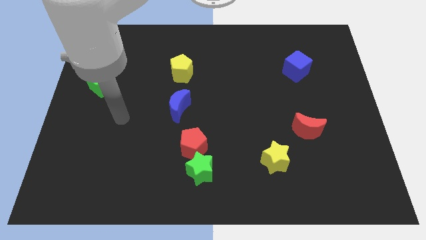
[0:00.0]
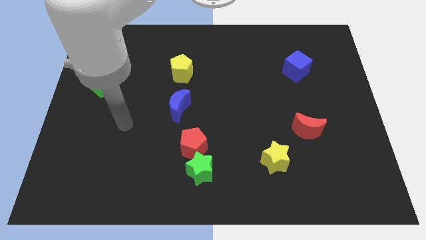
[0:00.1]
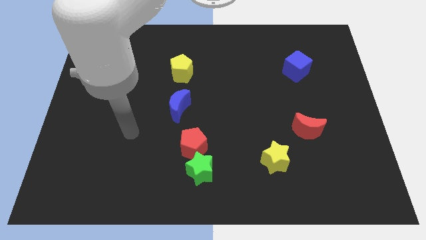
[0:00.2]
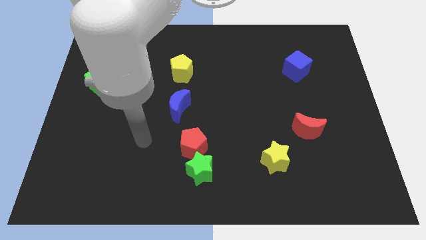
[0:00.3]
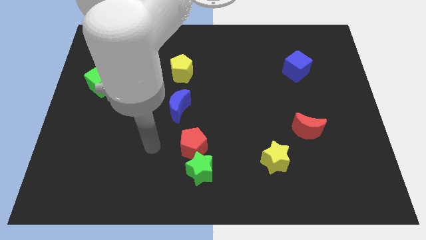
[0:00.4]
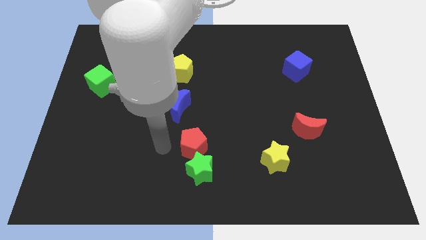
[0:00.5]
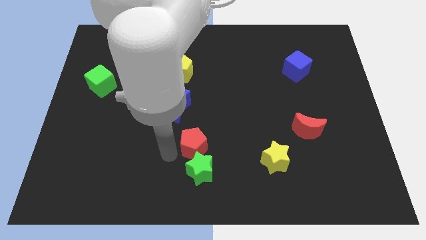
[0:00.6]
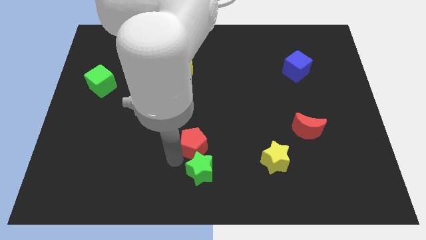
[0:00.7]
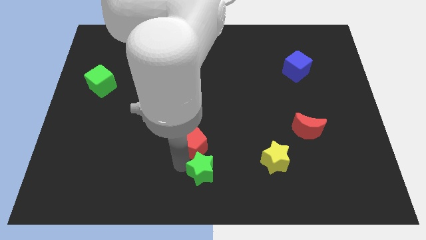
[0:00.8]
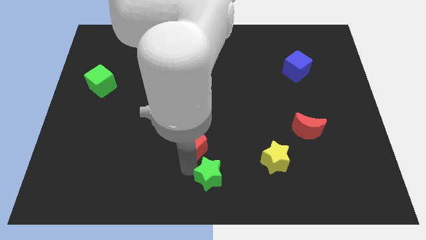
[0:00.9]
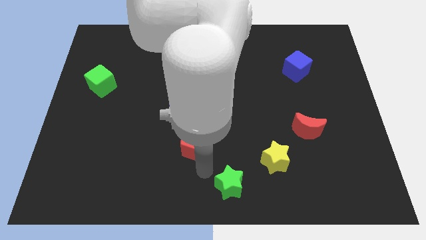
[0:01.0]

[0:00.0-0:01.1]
separate the red pentagon from the green star

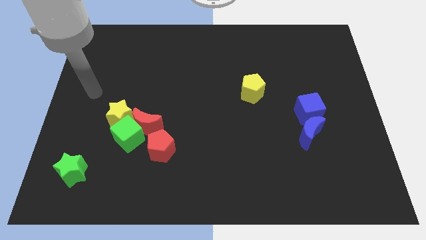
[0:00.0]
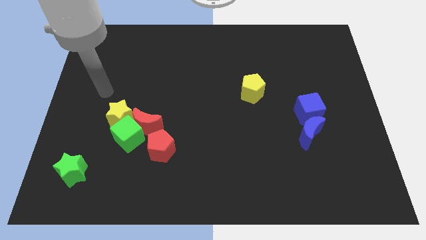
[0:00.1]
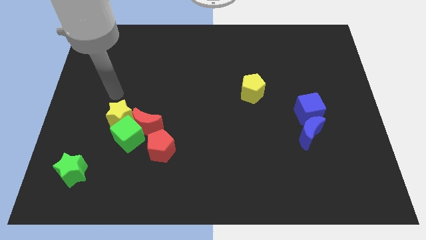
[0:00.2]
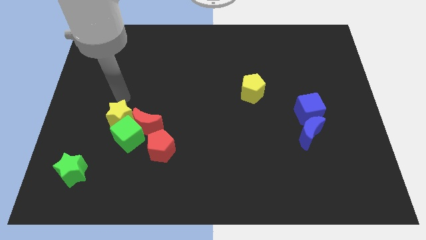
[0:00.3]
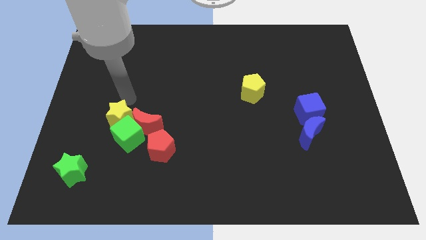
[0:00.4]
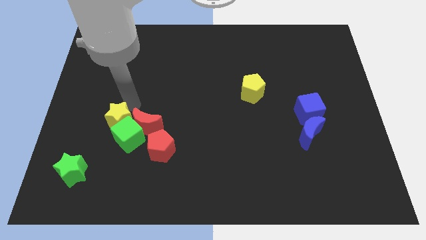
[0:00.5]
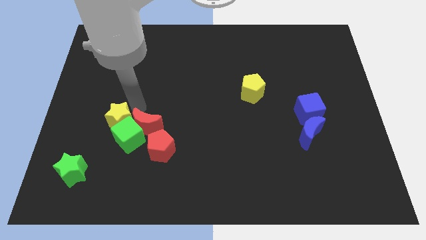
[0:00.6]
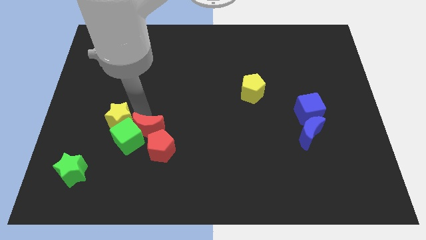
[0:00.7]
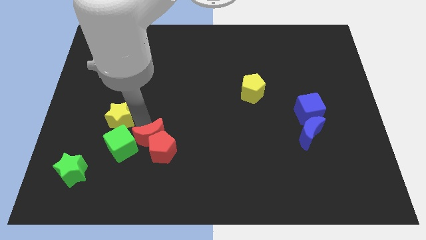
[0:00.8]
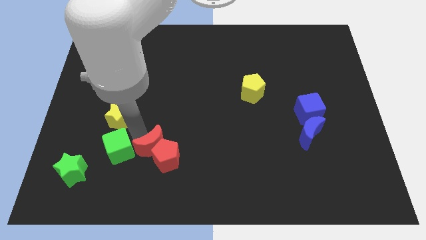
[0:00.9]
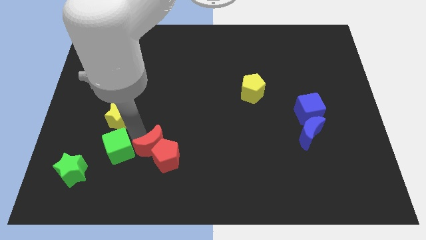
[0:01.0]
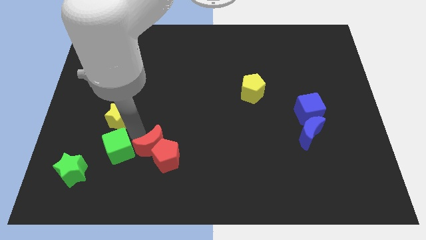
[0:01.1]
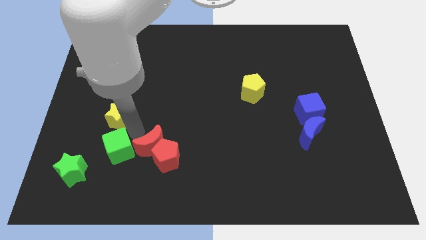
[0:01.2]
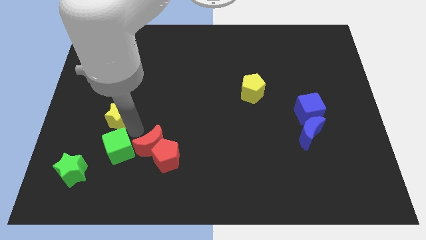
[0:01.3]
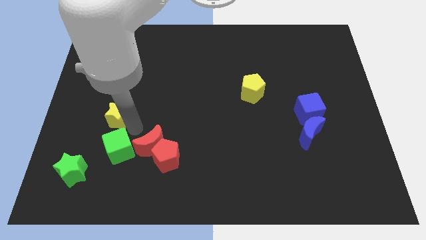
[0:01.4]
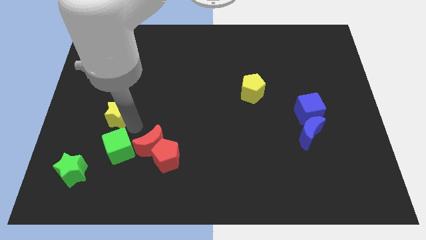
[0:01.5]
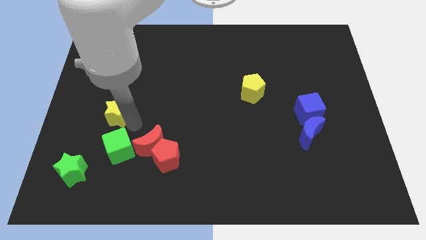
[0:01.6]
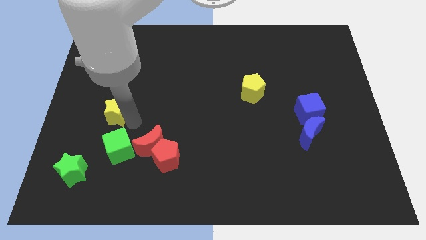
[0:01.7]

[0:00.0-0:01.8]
pull the yellow star apart from the green cube and red moon

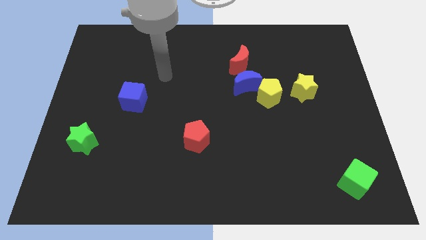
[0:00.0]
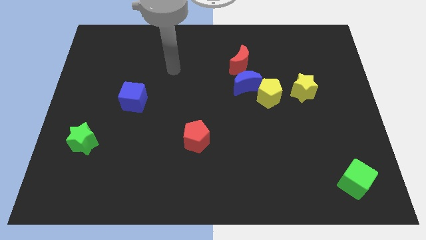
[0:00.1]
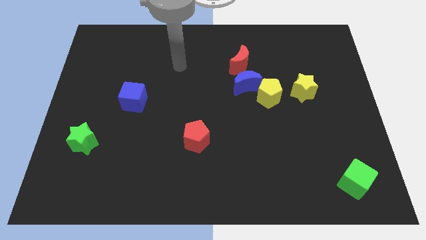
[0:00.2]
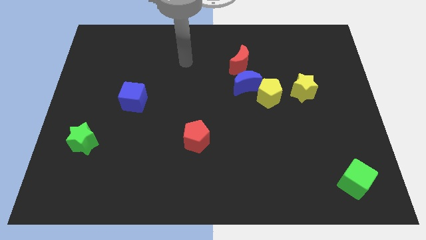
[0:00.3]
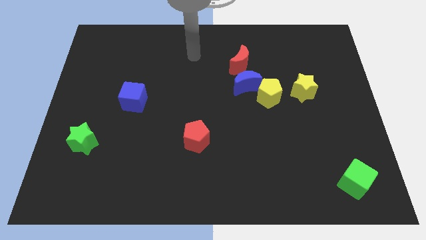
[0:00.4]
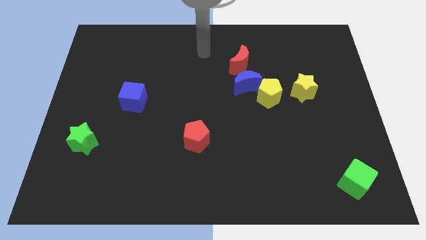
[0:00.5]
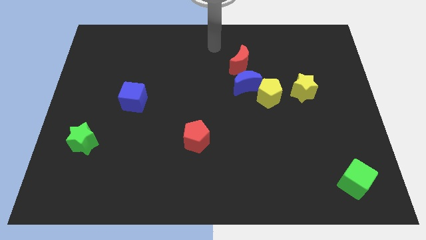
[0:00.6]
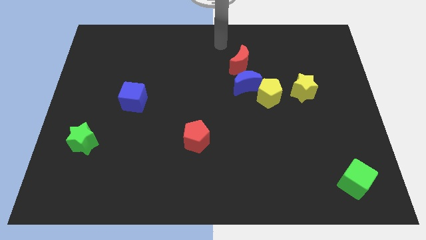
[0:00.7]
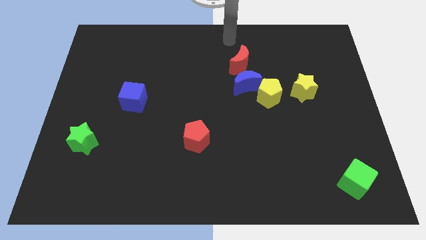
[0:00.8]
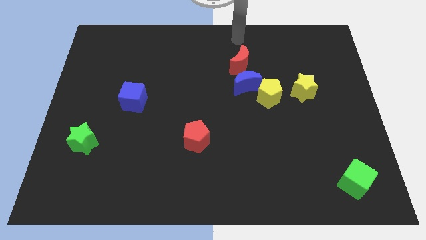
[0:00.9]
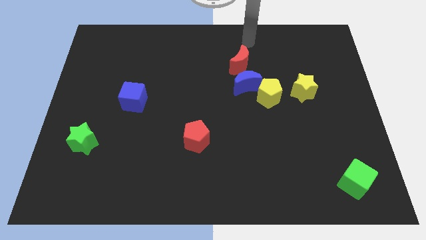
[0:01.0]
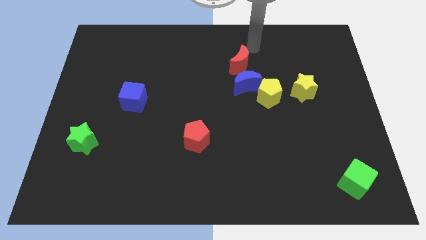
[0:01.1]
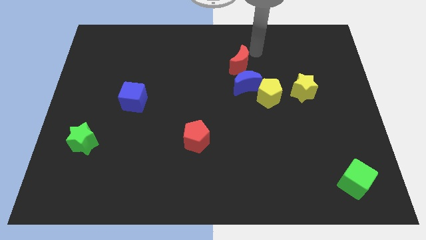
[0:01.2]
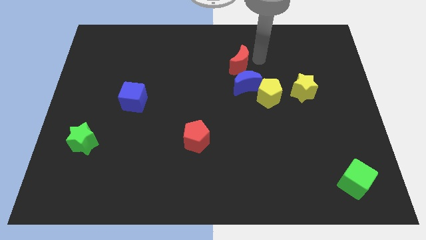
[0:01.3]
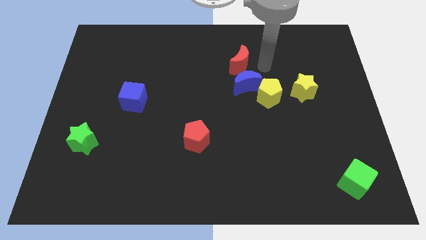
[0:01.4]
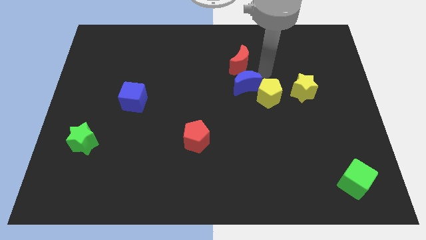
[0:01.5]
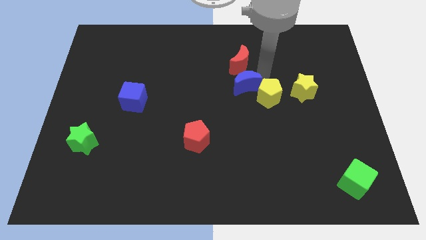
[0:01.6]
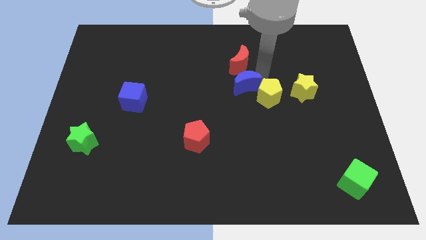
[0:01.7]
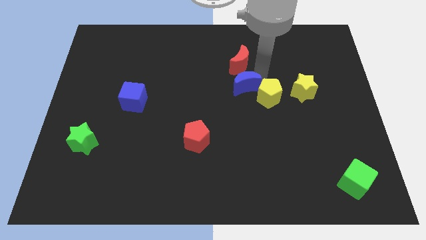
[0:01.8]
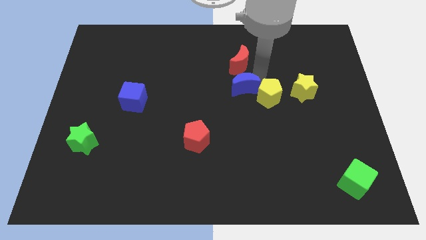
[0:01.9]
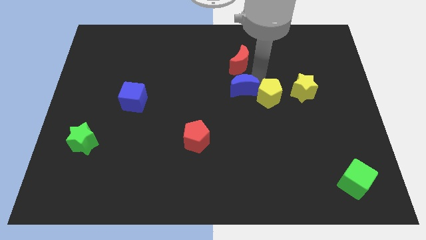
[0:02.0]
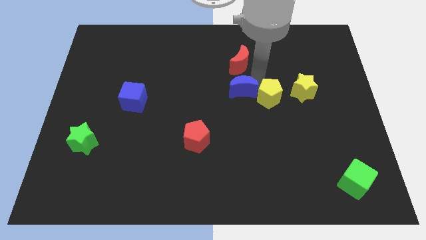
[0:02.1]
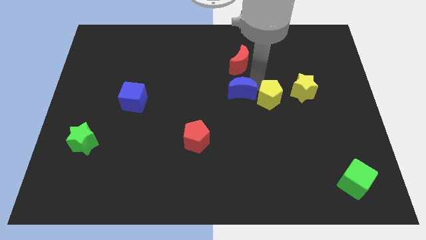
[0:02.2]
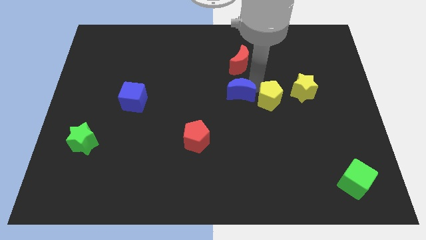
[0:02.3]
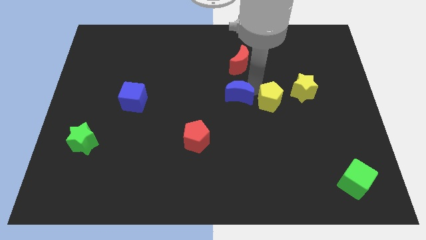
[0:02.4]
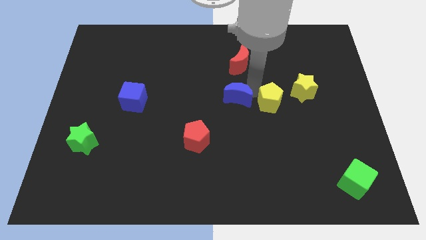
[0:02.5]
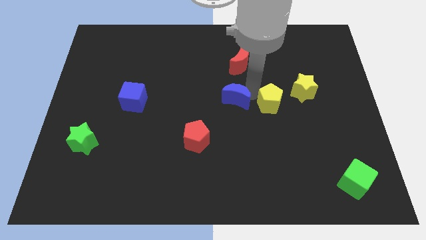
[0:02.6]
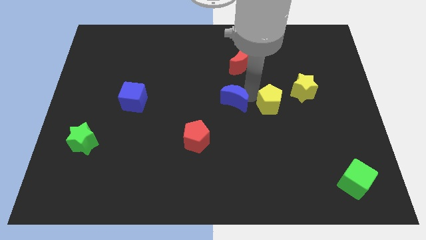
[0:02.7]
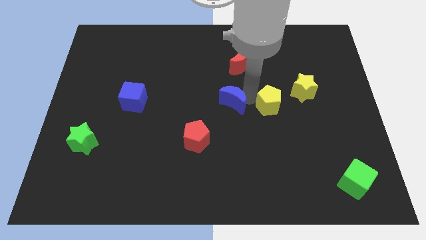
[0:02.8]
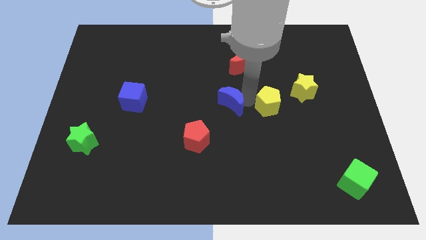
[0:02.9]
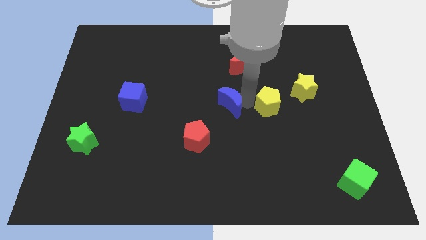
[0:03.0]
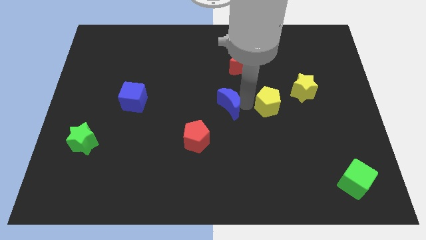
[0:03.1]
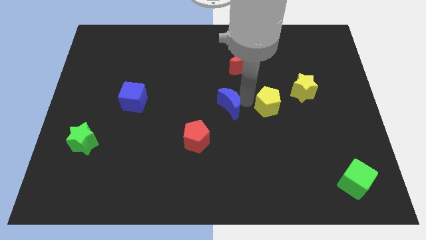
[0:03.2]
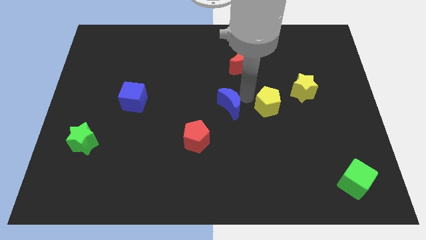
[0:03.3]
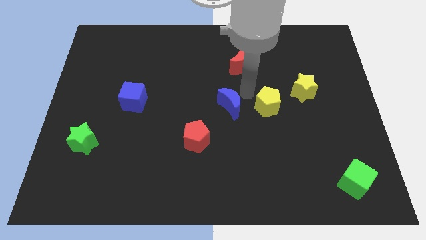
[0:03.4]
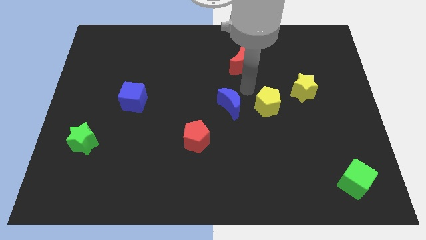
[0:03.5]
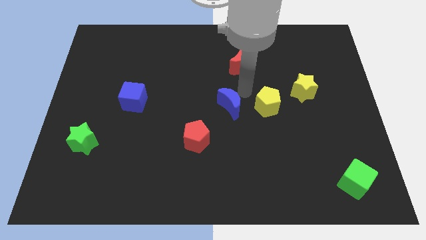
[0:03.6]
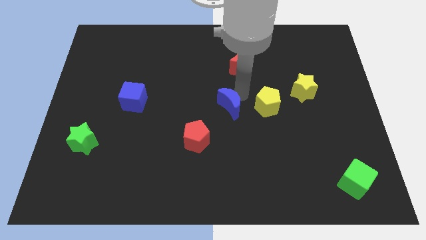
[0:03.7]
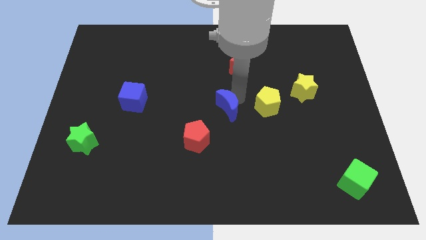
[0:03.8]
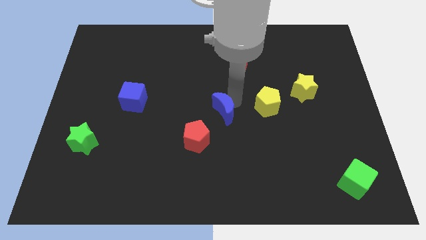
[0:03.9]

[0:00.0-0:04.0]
pull the blue moon apart from the yellow pentagon and red moon

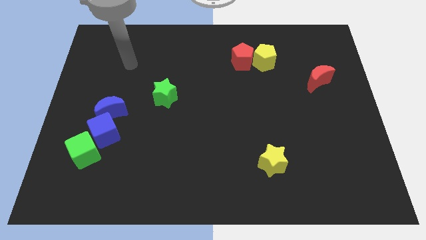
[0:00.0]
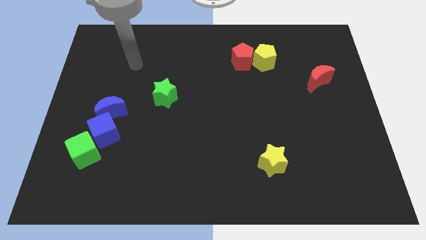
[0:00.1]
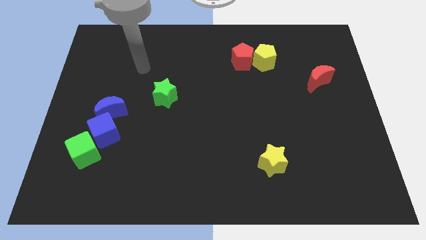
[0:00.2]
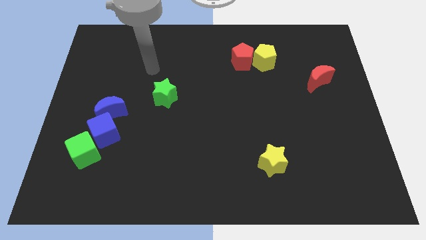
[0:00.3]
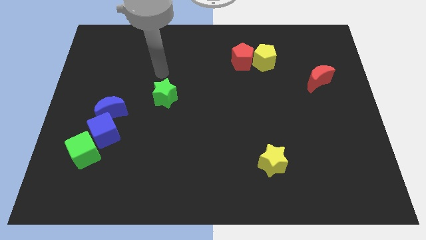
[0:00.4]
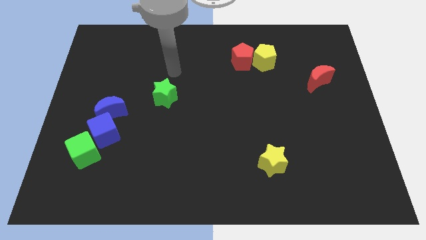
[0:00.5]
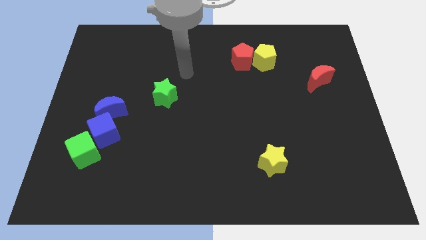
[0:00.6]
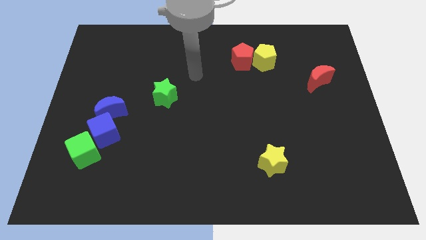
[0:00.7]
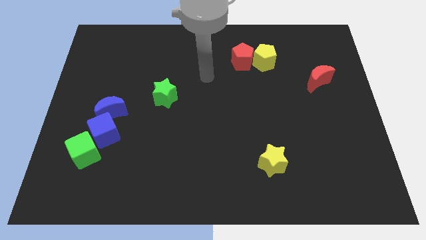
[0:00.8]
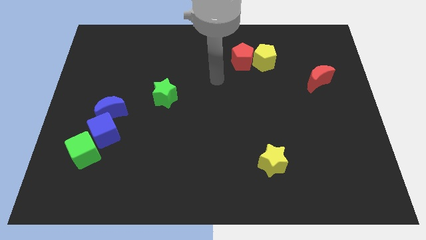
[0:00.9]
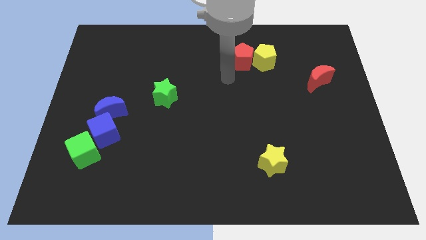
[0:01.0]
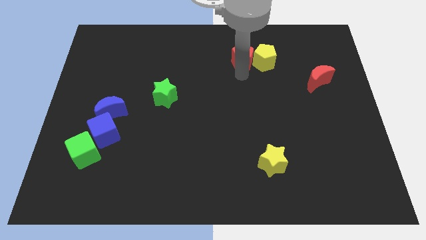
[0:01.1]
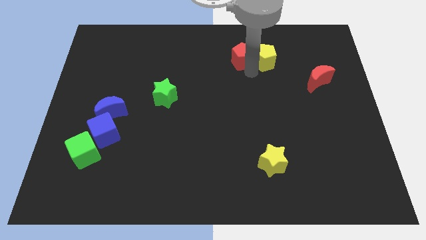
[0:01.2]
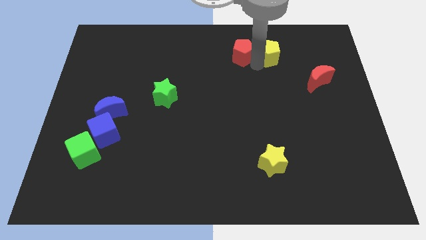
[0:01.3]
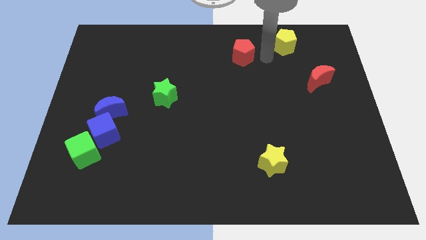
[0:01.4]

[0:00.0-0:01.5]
separate the red pentagon from the yellow pentagon

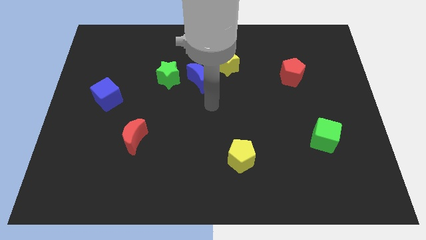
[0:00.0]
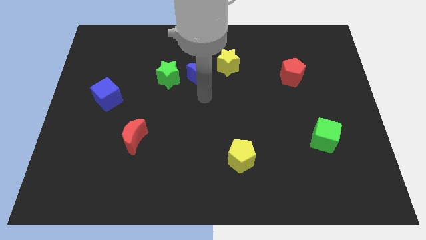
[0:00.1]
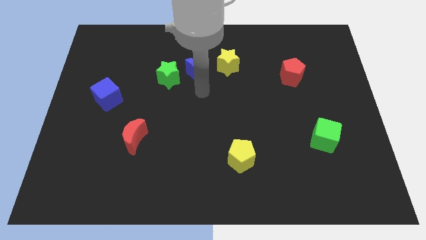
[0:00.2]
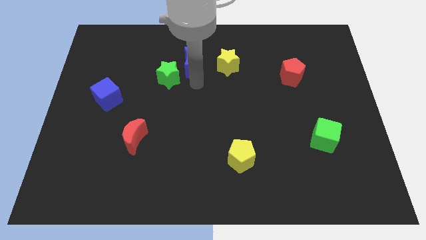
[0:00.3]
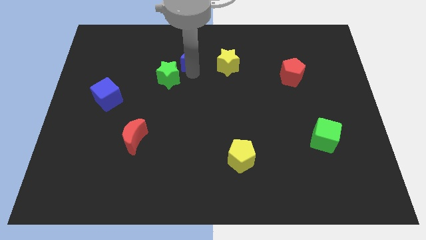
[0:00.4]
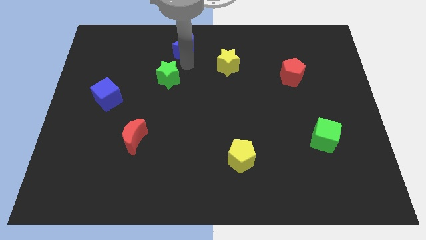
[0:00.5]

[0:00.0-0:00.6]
move the green star away from the blue moon

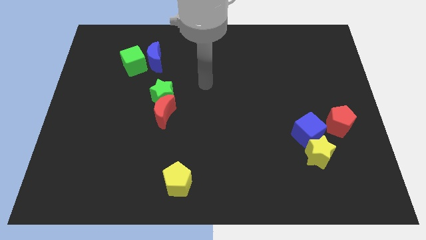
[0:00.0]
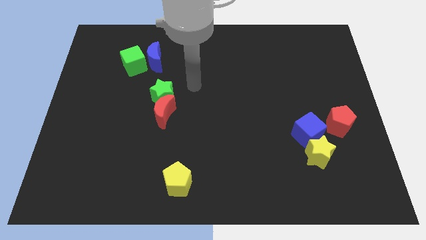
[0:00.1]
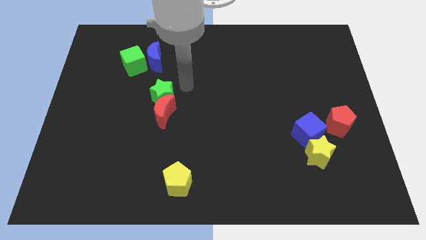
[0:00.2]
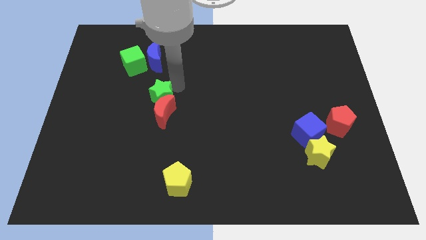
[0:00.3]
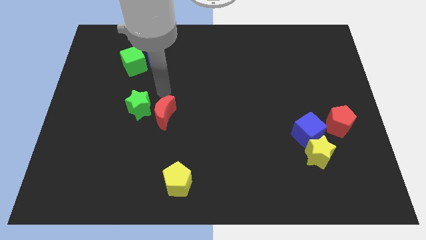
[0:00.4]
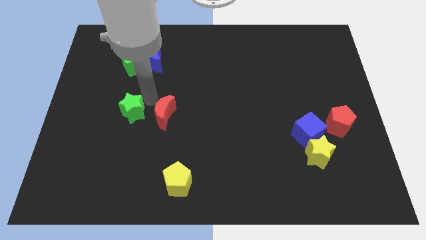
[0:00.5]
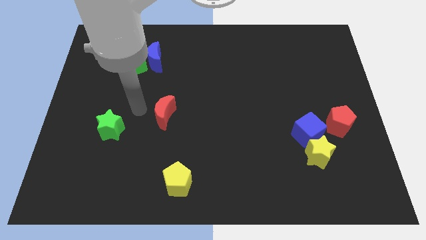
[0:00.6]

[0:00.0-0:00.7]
move the red moon away from the green star
